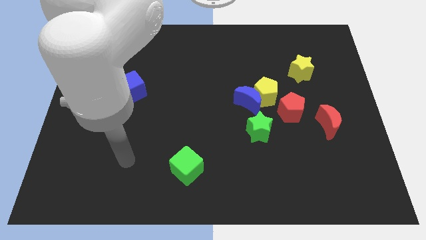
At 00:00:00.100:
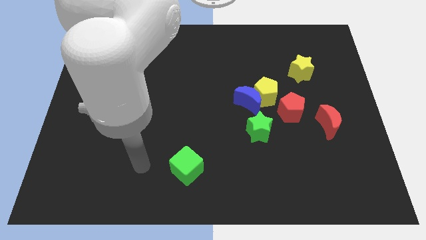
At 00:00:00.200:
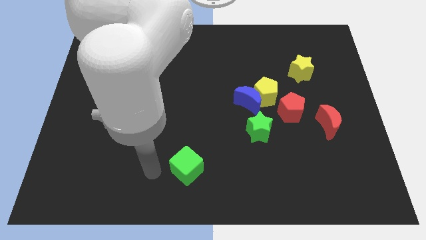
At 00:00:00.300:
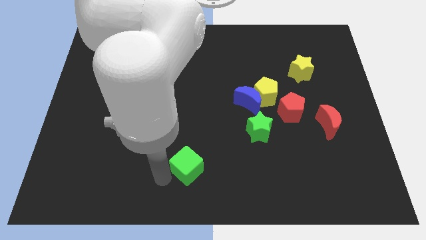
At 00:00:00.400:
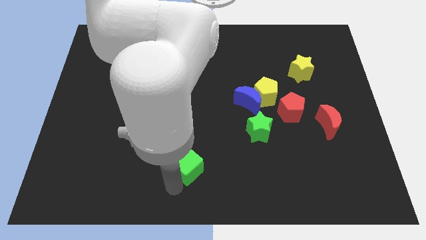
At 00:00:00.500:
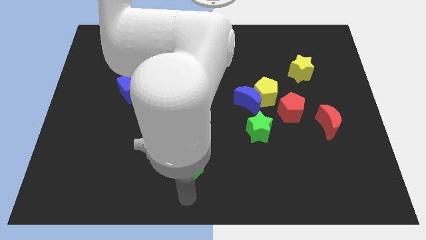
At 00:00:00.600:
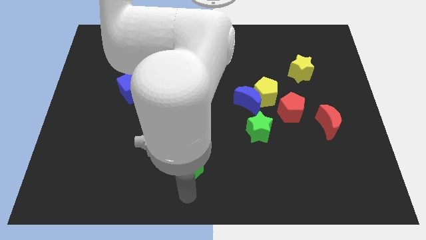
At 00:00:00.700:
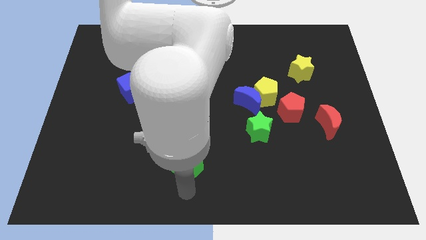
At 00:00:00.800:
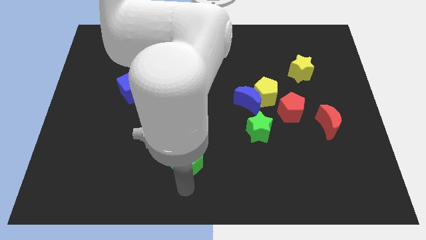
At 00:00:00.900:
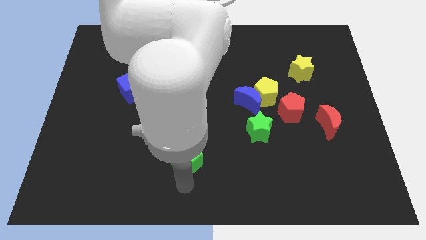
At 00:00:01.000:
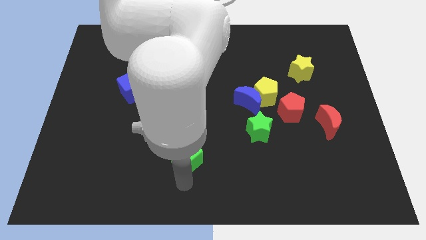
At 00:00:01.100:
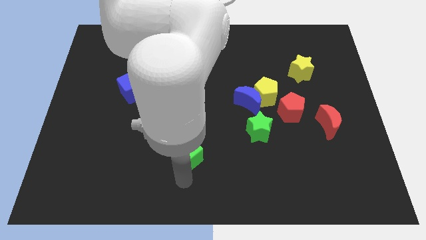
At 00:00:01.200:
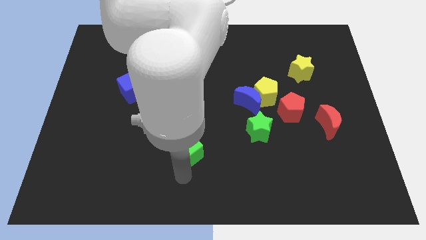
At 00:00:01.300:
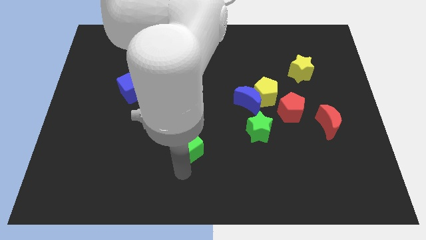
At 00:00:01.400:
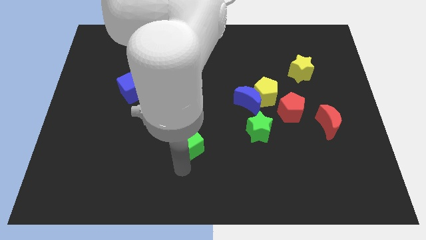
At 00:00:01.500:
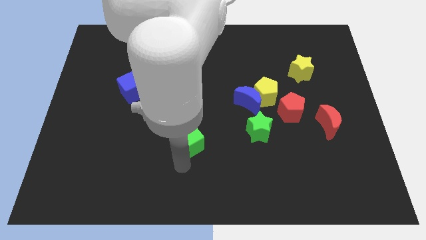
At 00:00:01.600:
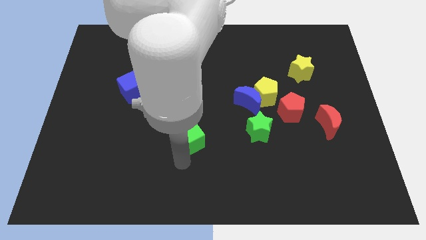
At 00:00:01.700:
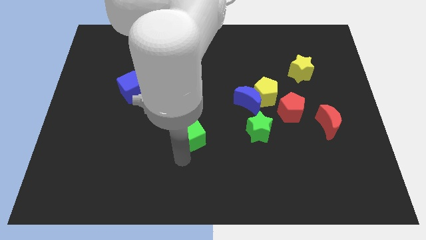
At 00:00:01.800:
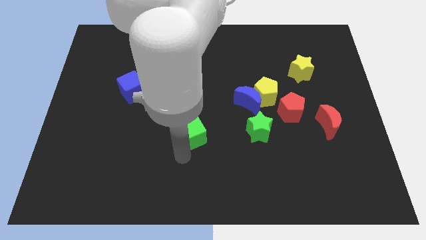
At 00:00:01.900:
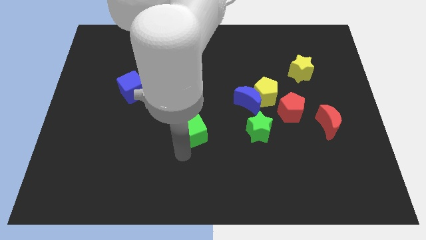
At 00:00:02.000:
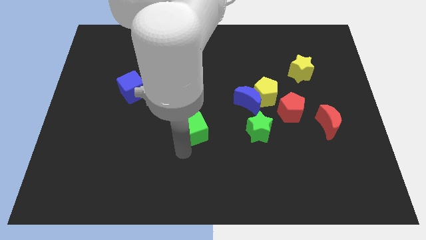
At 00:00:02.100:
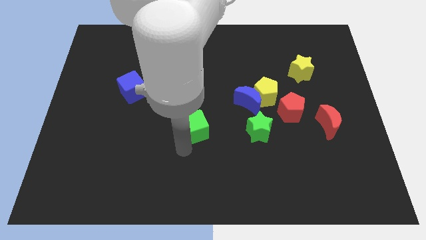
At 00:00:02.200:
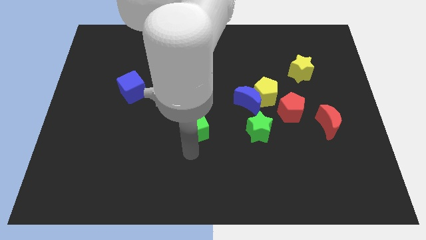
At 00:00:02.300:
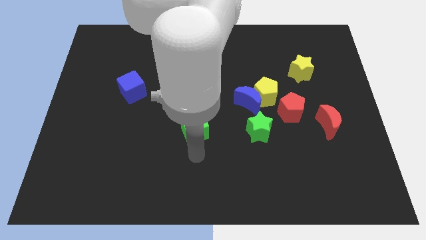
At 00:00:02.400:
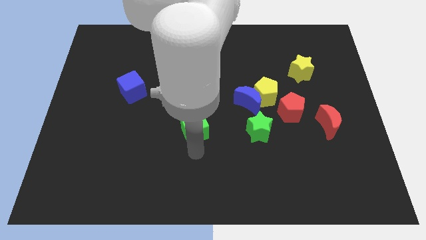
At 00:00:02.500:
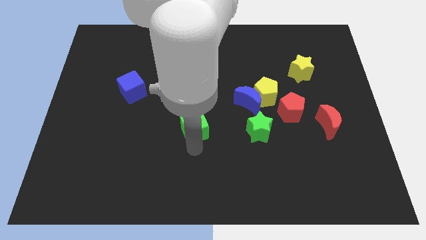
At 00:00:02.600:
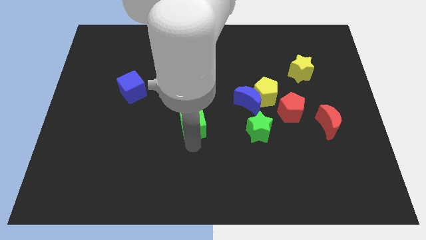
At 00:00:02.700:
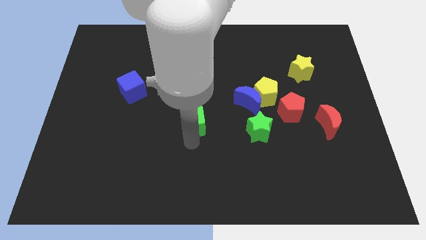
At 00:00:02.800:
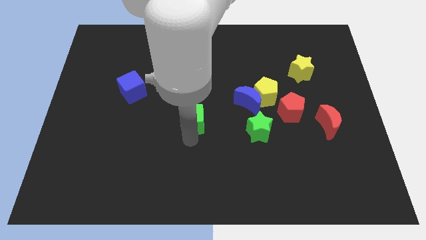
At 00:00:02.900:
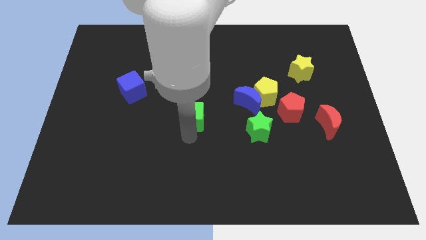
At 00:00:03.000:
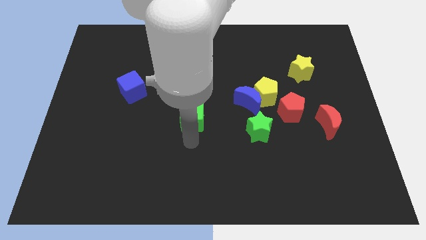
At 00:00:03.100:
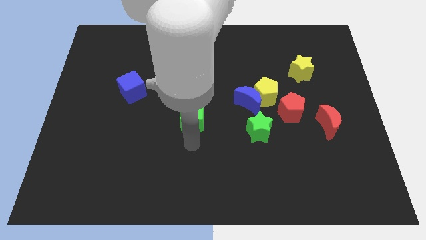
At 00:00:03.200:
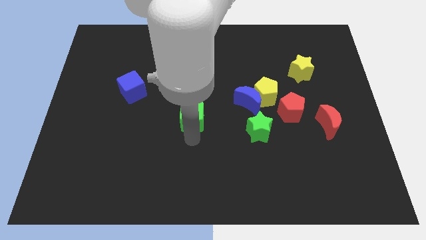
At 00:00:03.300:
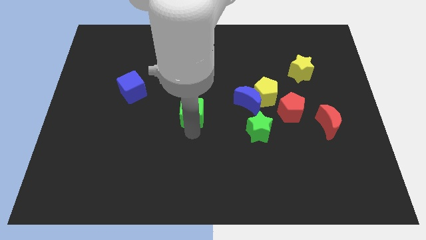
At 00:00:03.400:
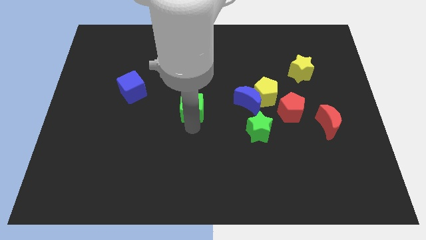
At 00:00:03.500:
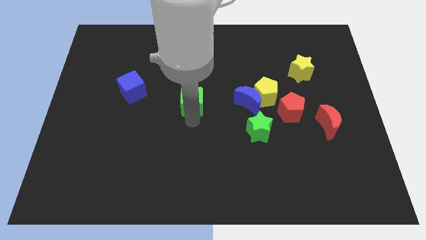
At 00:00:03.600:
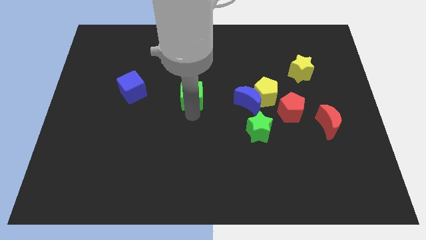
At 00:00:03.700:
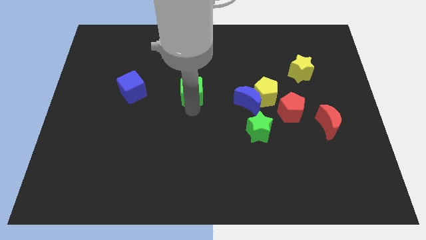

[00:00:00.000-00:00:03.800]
push the green cube up

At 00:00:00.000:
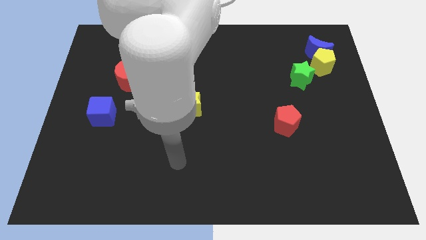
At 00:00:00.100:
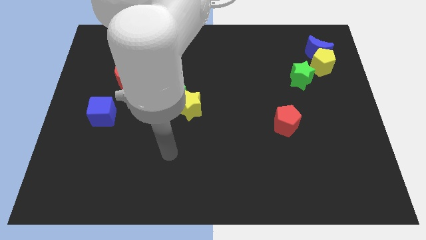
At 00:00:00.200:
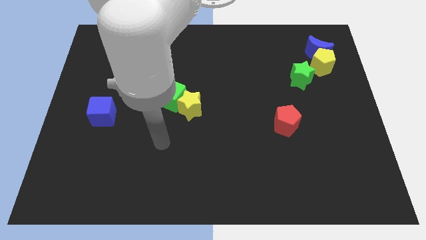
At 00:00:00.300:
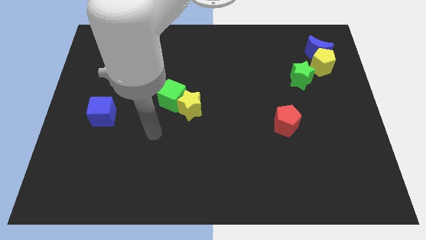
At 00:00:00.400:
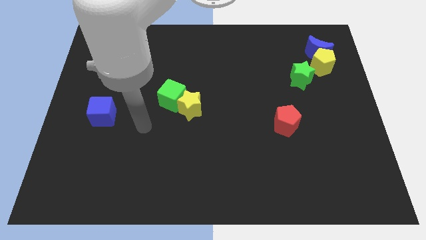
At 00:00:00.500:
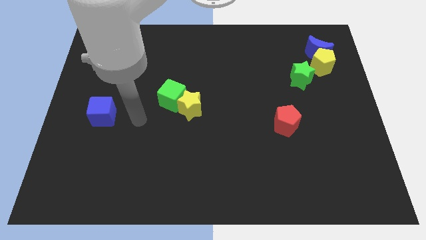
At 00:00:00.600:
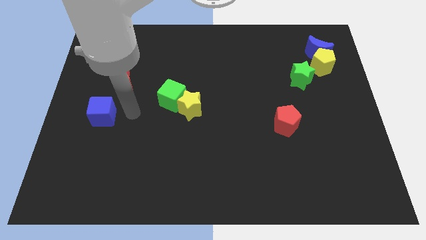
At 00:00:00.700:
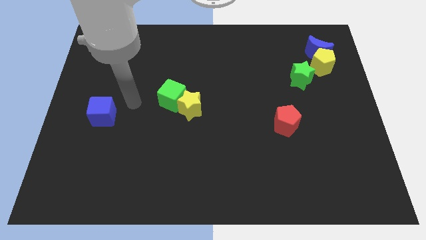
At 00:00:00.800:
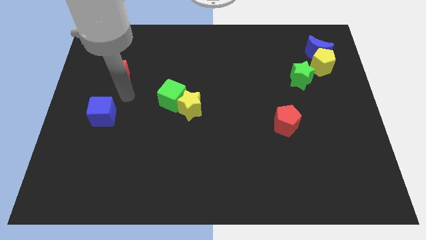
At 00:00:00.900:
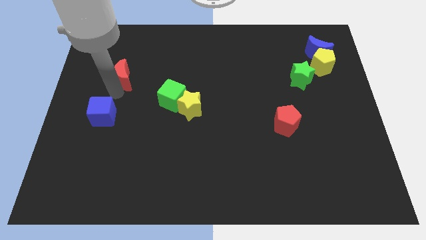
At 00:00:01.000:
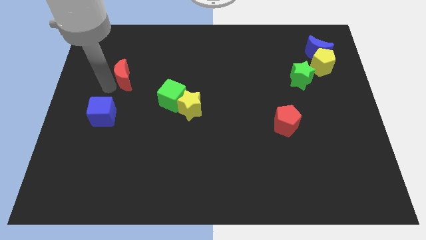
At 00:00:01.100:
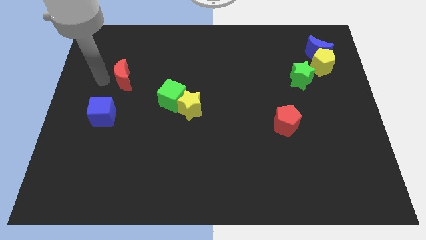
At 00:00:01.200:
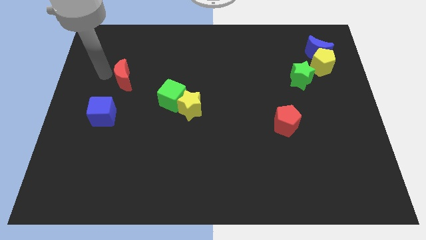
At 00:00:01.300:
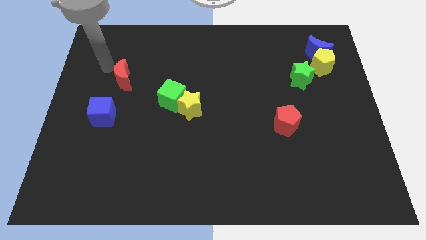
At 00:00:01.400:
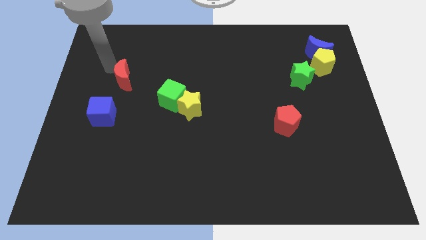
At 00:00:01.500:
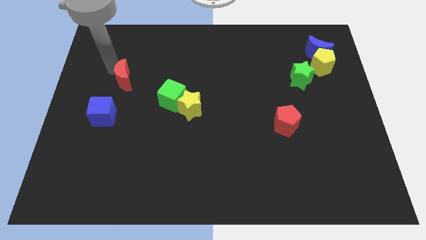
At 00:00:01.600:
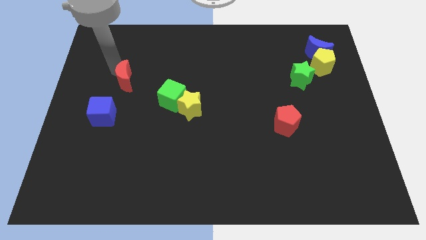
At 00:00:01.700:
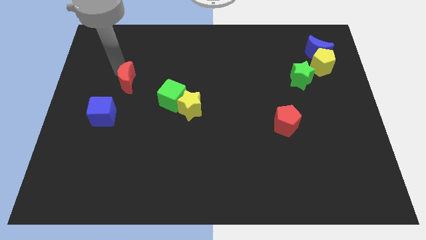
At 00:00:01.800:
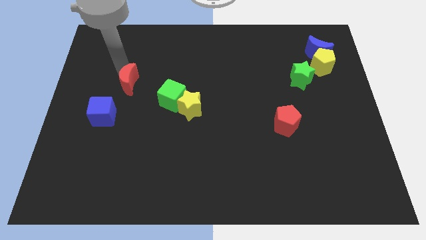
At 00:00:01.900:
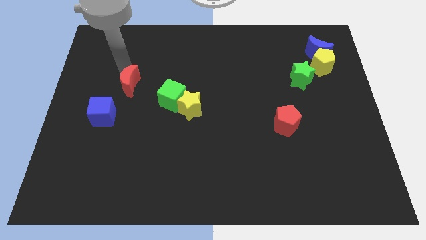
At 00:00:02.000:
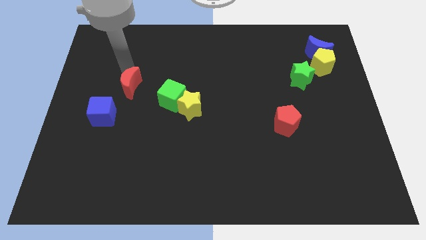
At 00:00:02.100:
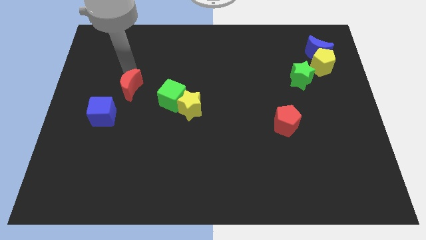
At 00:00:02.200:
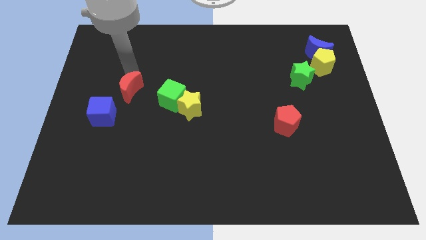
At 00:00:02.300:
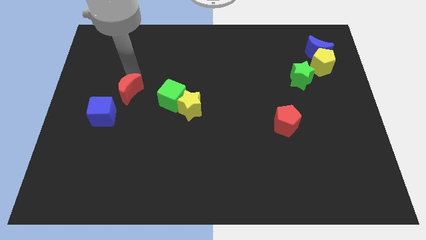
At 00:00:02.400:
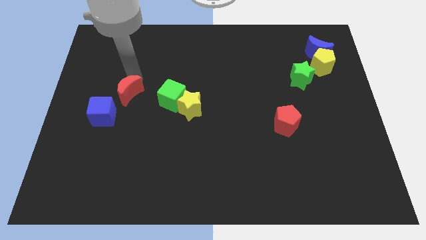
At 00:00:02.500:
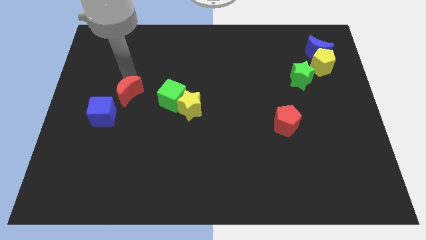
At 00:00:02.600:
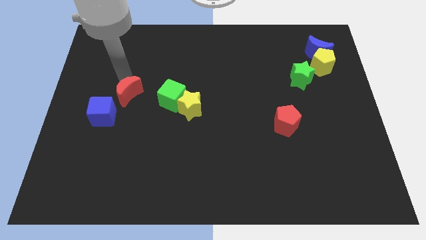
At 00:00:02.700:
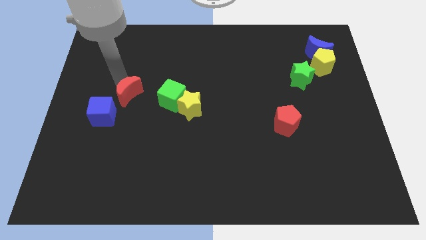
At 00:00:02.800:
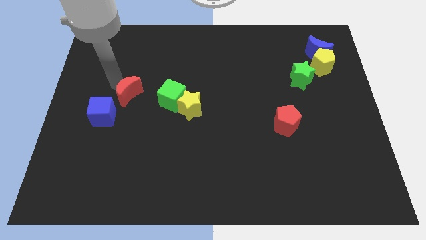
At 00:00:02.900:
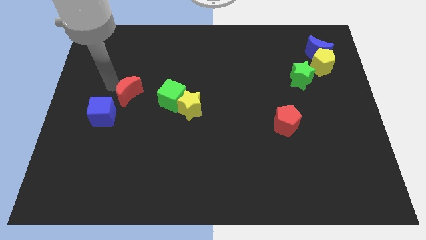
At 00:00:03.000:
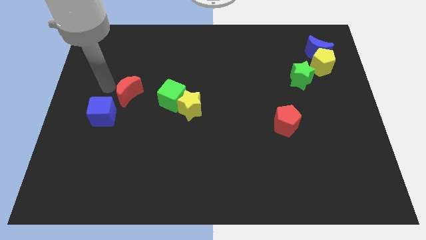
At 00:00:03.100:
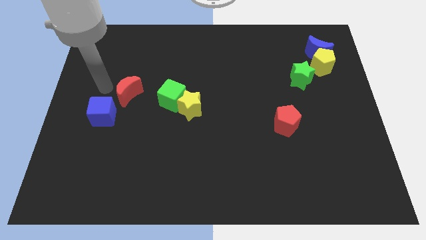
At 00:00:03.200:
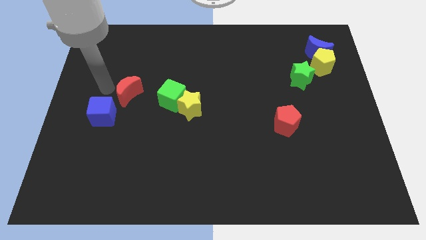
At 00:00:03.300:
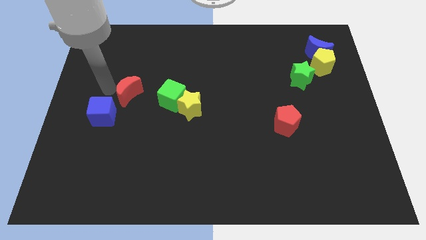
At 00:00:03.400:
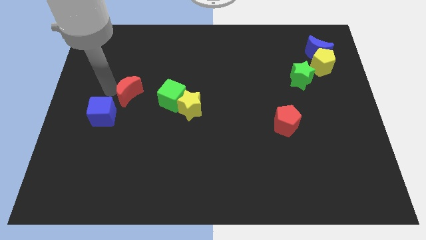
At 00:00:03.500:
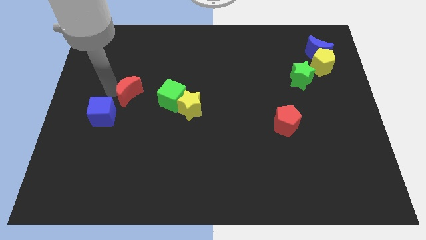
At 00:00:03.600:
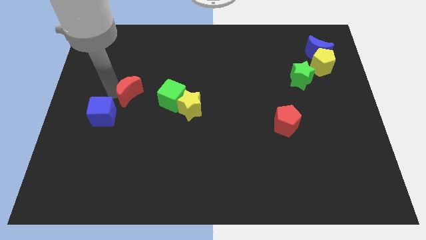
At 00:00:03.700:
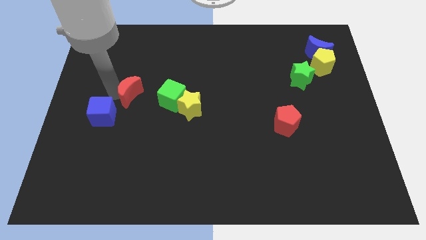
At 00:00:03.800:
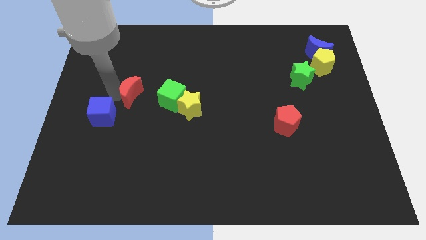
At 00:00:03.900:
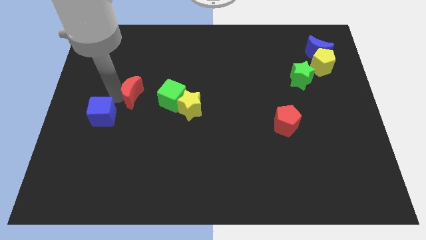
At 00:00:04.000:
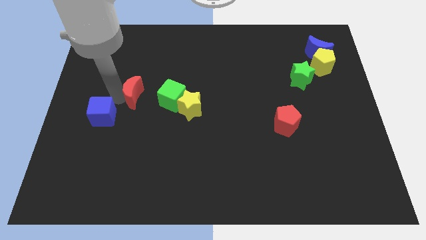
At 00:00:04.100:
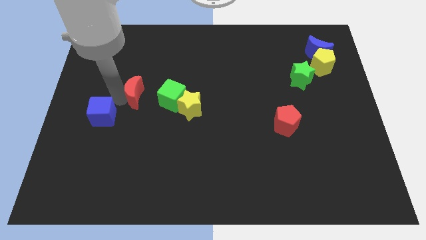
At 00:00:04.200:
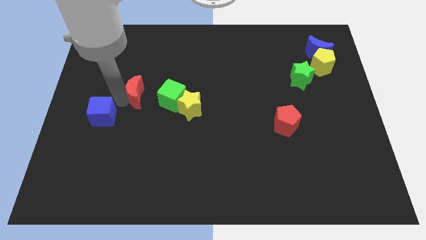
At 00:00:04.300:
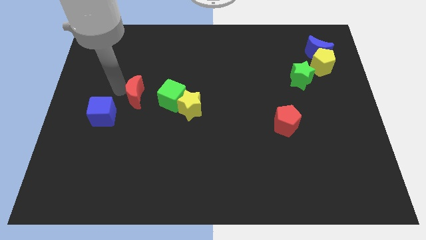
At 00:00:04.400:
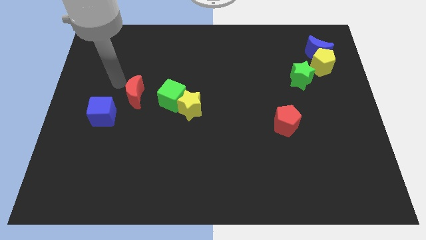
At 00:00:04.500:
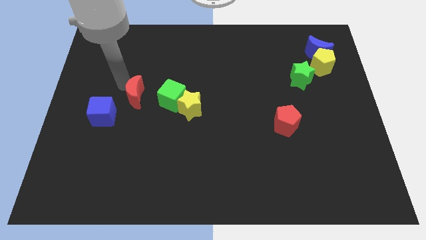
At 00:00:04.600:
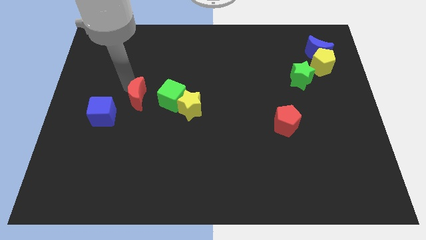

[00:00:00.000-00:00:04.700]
slightly slide the red moon diagonally downwards and right
